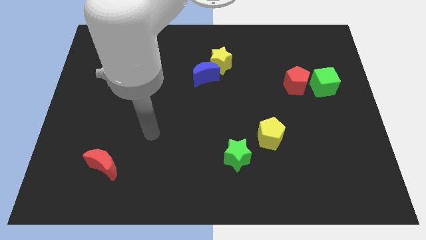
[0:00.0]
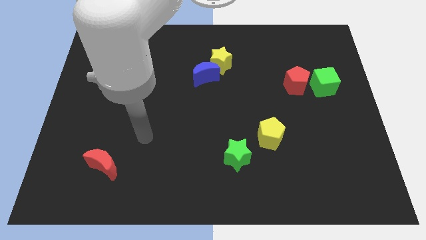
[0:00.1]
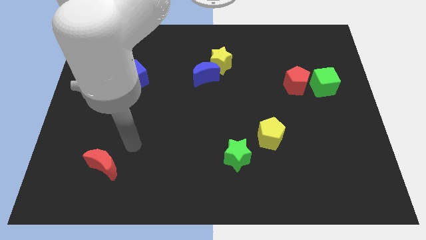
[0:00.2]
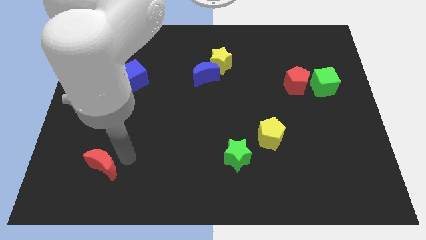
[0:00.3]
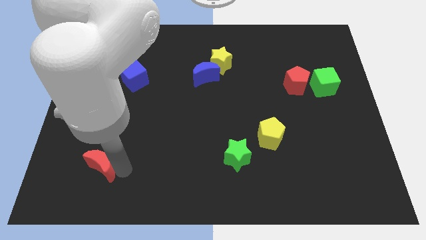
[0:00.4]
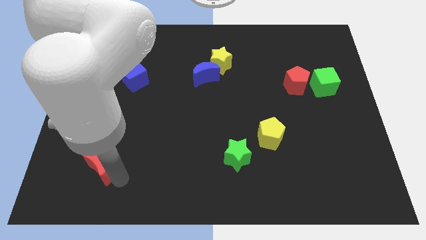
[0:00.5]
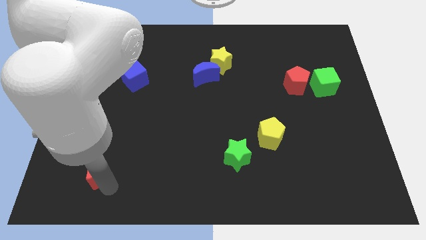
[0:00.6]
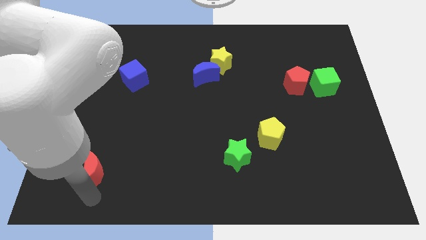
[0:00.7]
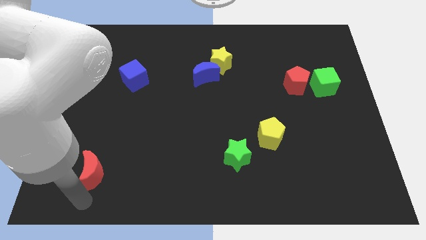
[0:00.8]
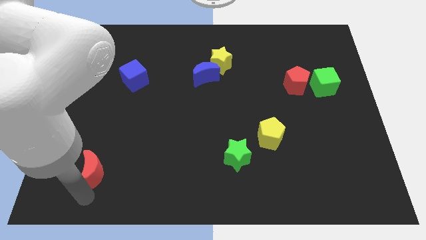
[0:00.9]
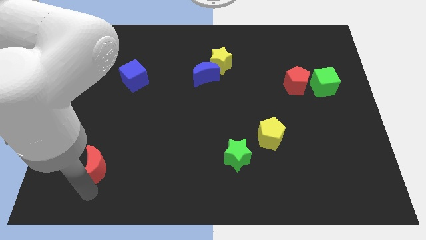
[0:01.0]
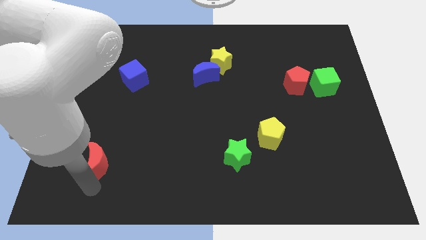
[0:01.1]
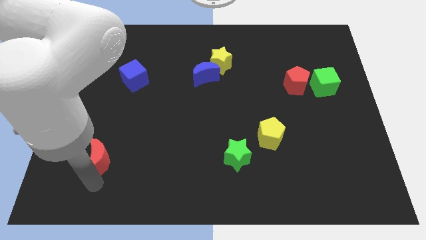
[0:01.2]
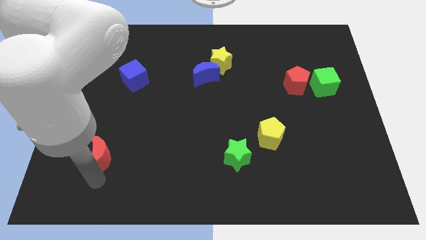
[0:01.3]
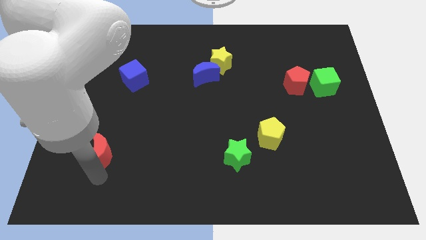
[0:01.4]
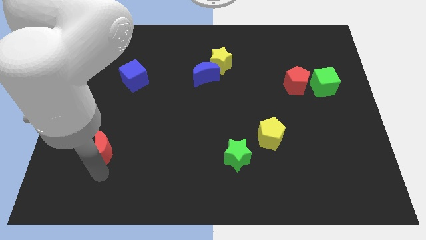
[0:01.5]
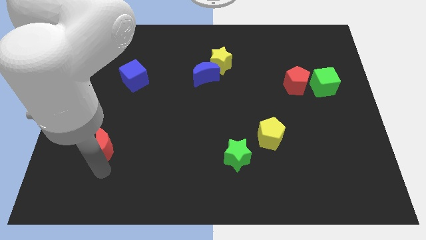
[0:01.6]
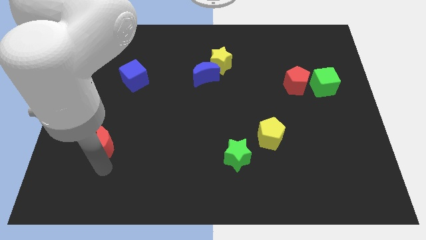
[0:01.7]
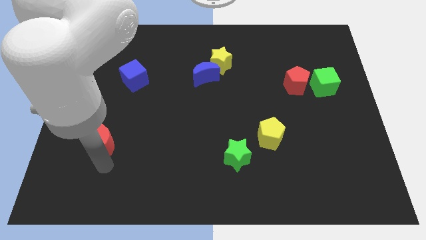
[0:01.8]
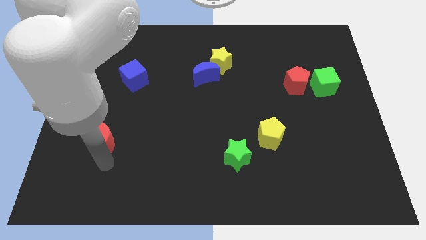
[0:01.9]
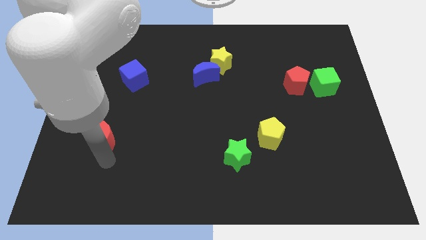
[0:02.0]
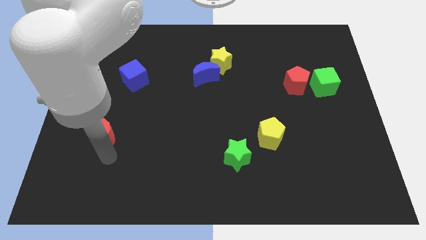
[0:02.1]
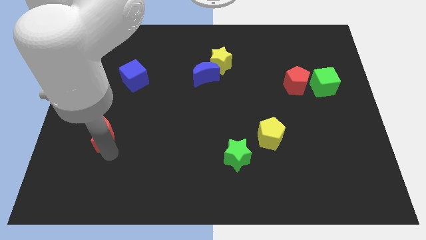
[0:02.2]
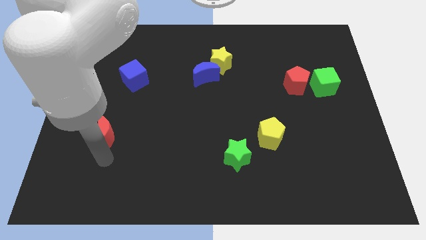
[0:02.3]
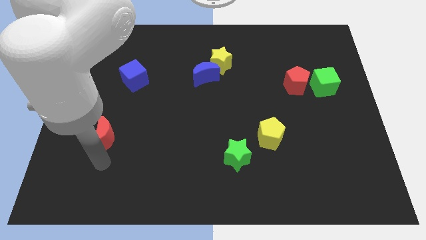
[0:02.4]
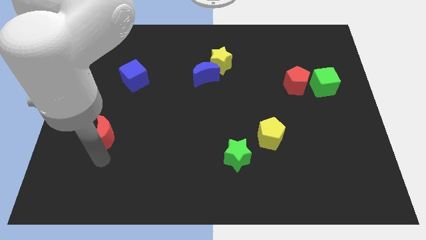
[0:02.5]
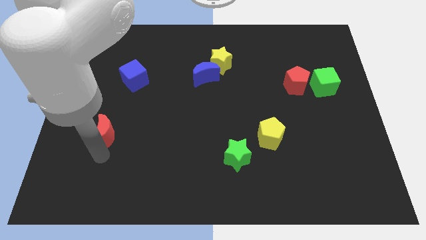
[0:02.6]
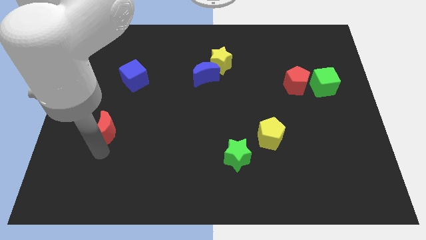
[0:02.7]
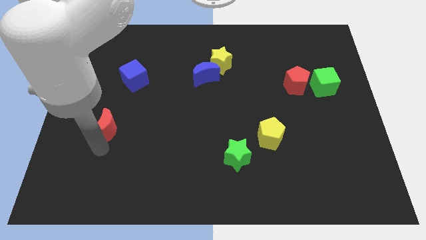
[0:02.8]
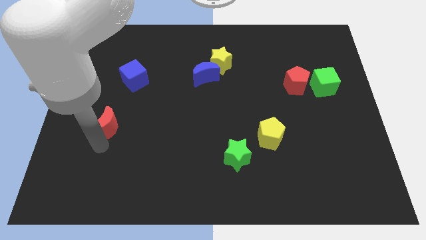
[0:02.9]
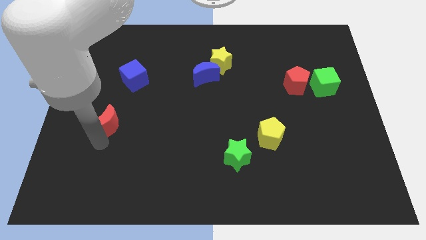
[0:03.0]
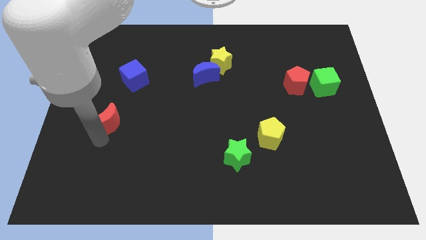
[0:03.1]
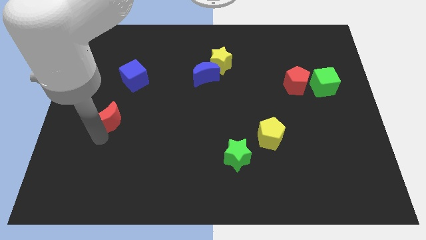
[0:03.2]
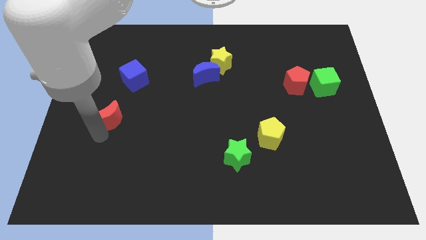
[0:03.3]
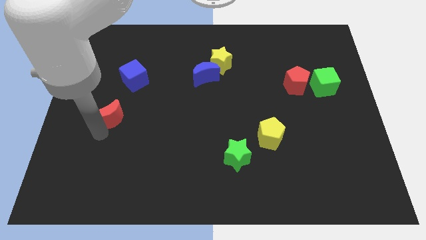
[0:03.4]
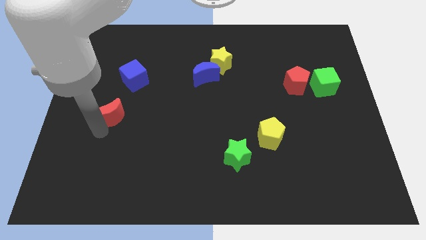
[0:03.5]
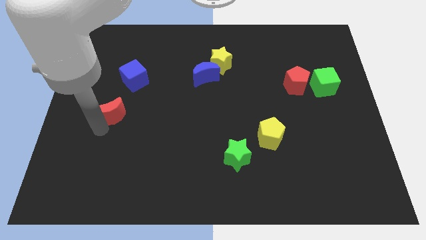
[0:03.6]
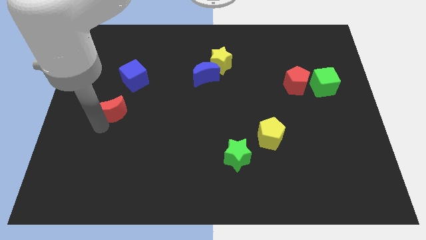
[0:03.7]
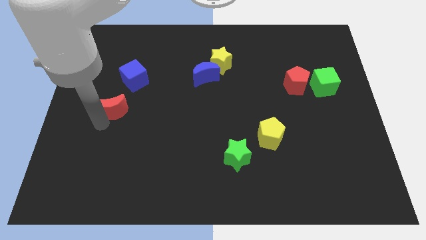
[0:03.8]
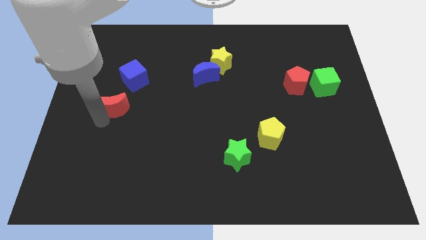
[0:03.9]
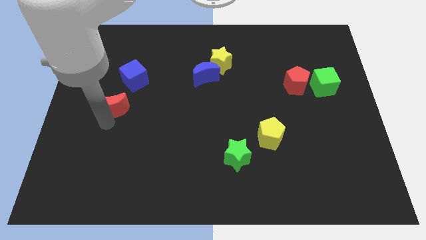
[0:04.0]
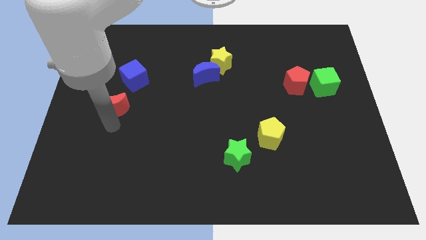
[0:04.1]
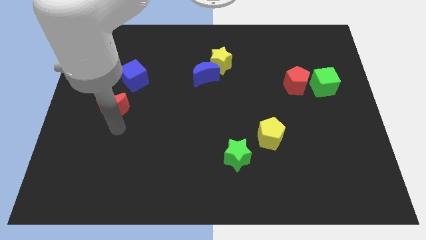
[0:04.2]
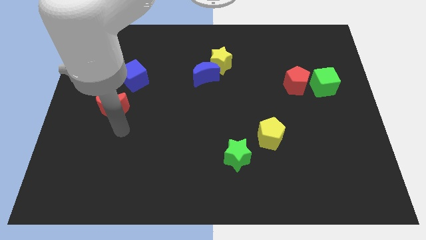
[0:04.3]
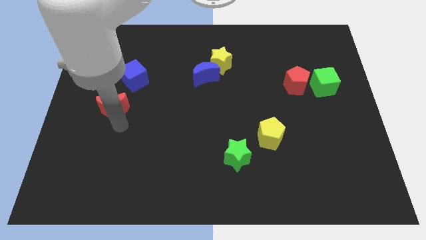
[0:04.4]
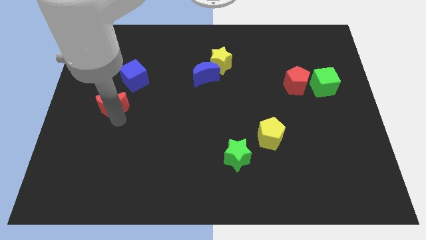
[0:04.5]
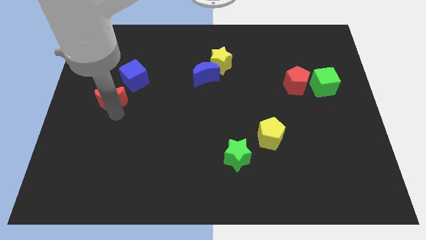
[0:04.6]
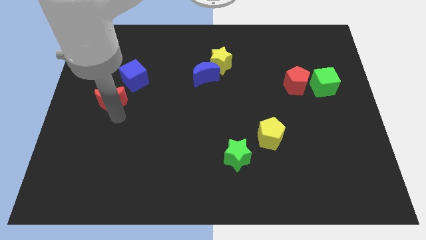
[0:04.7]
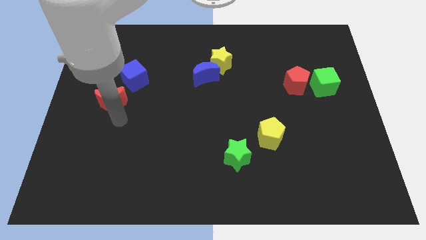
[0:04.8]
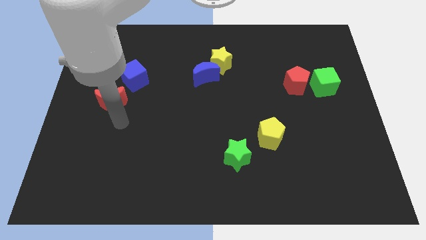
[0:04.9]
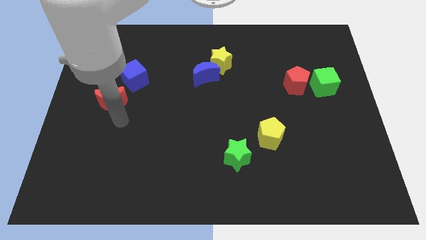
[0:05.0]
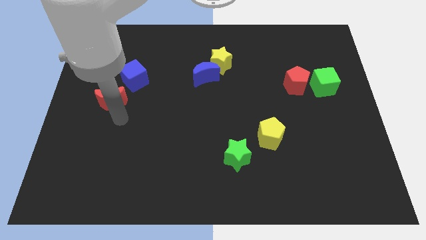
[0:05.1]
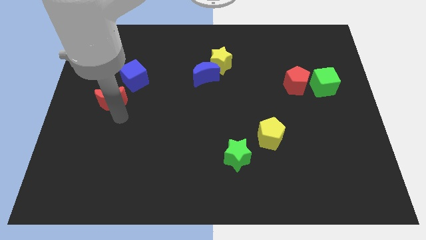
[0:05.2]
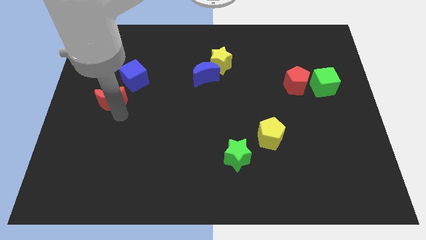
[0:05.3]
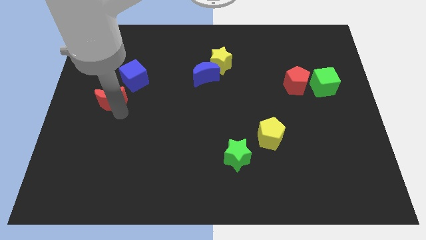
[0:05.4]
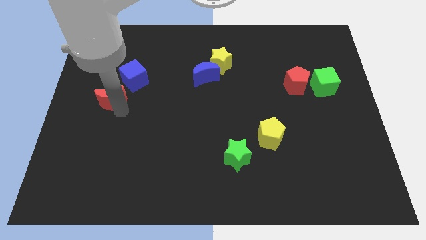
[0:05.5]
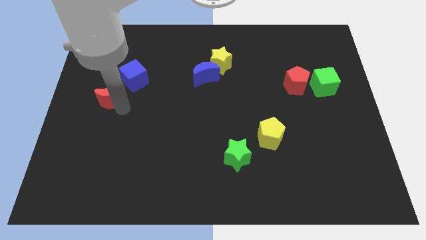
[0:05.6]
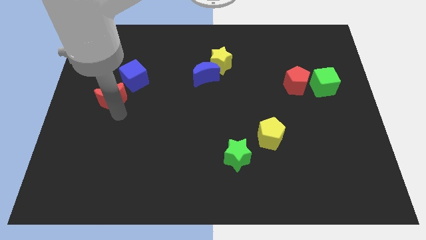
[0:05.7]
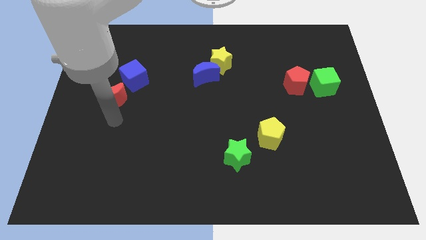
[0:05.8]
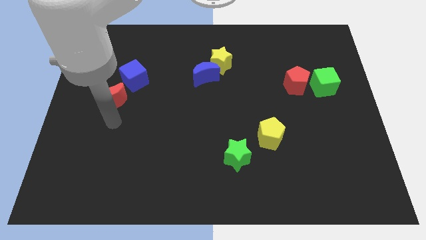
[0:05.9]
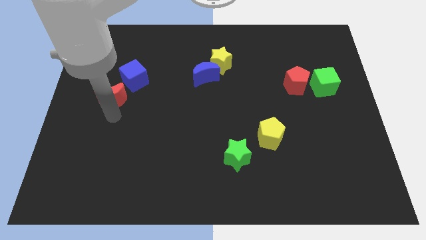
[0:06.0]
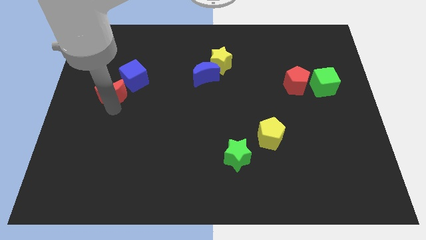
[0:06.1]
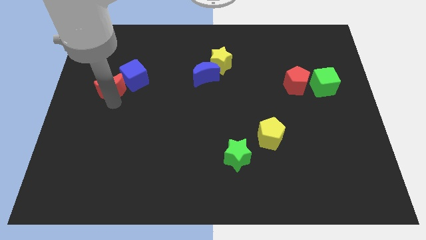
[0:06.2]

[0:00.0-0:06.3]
push the red moon upwards

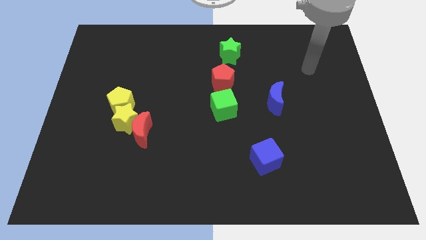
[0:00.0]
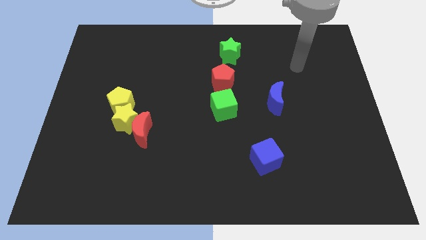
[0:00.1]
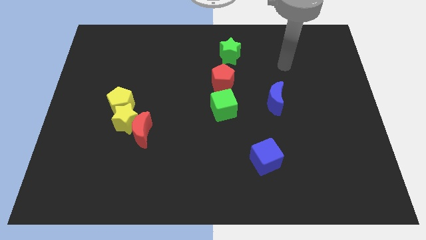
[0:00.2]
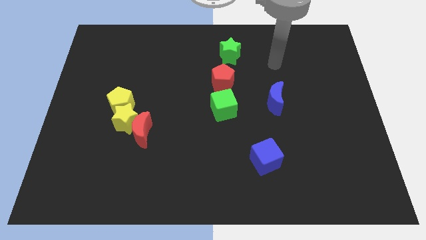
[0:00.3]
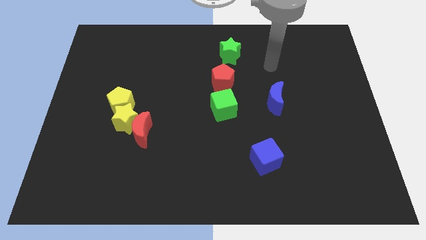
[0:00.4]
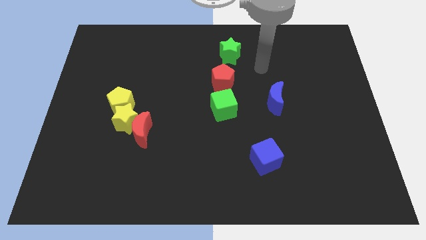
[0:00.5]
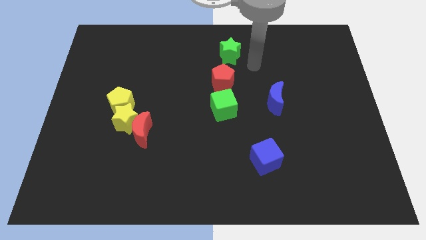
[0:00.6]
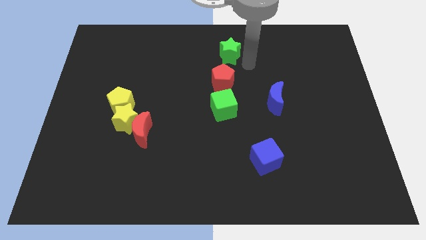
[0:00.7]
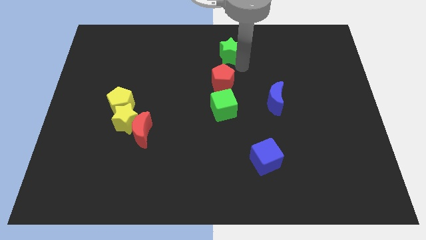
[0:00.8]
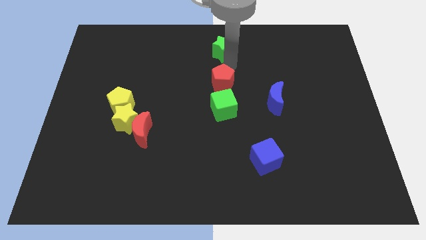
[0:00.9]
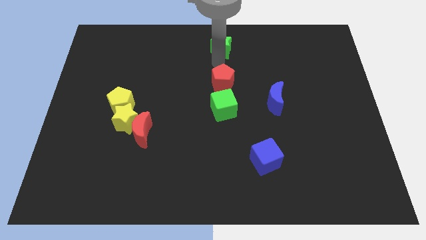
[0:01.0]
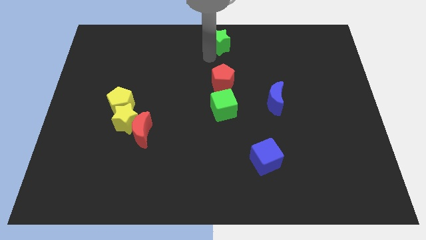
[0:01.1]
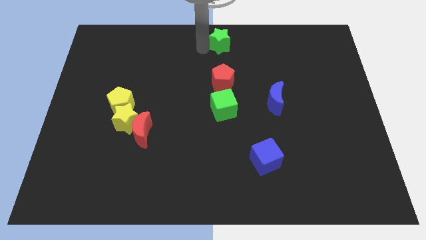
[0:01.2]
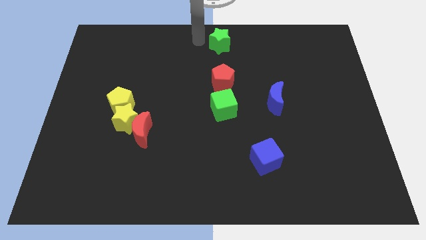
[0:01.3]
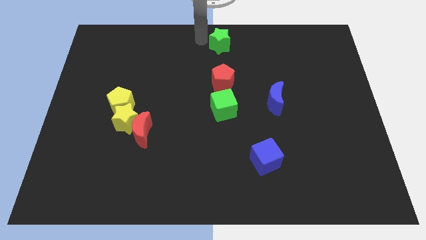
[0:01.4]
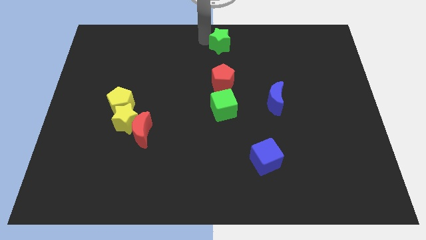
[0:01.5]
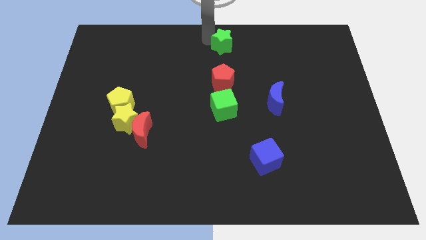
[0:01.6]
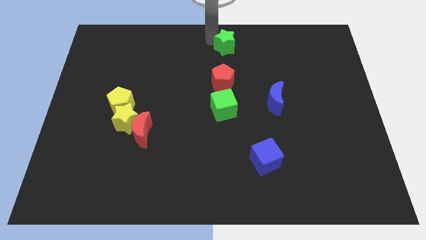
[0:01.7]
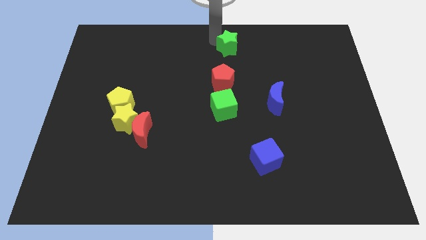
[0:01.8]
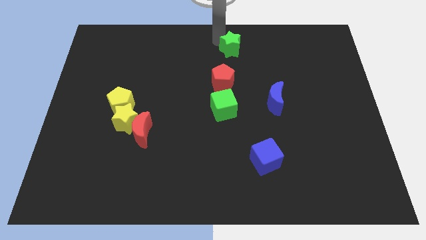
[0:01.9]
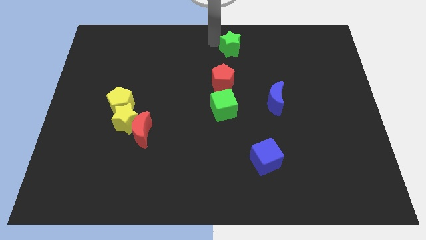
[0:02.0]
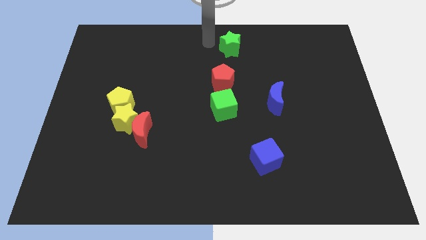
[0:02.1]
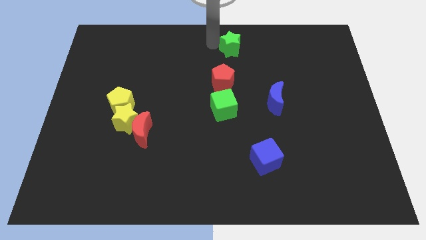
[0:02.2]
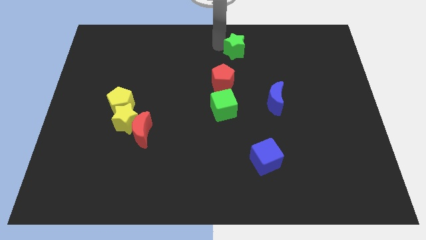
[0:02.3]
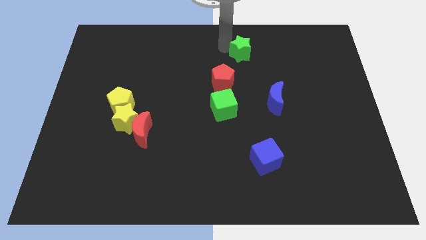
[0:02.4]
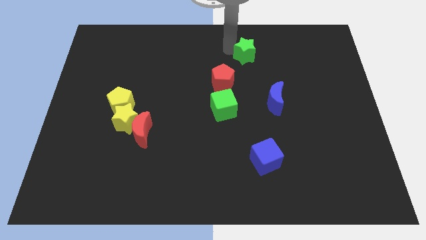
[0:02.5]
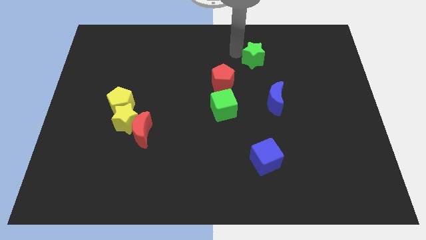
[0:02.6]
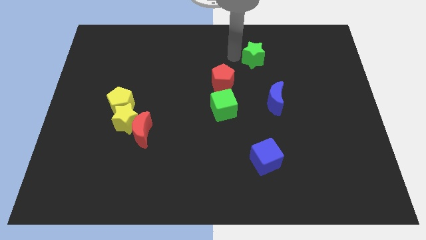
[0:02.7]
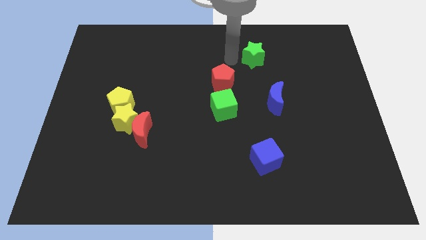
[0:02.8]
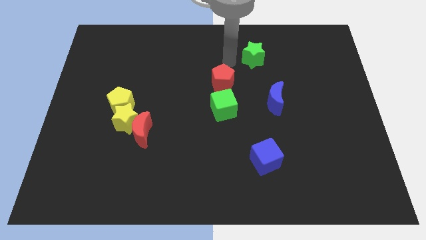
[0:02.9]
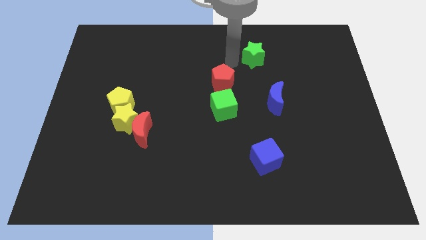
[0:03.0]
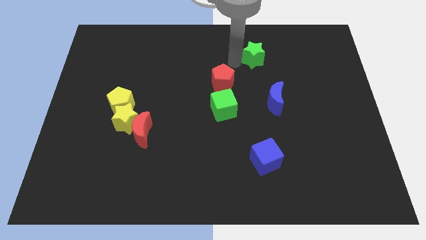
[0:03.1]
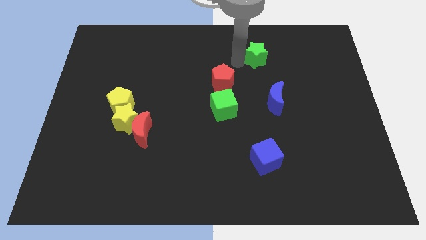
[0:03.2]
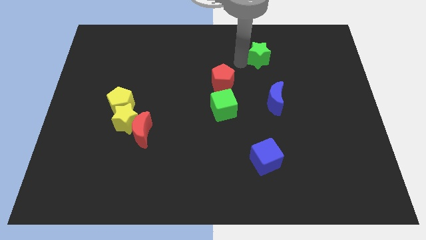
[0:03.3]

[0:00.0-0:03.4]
move the green star to the right slightly
